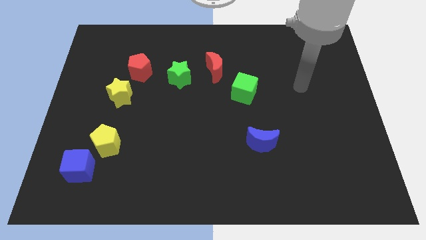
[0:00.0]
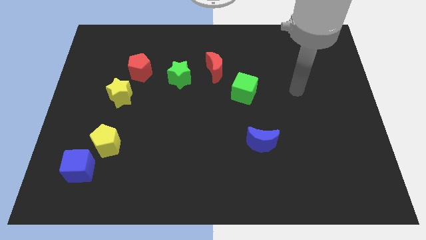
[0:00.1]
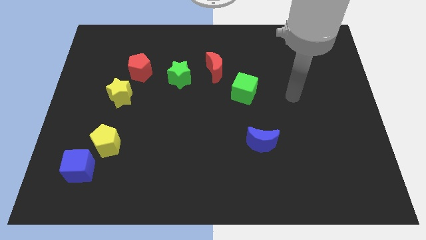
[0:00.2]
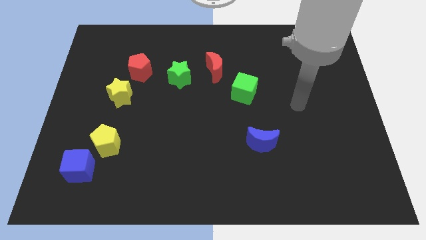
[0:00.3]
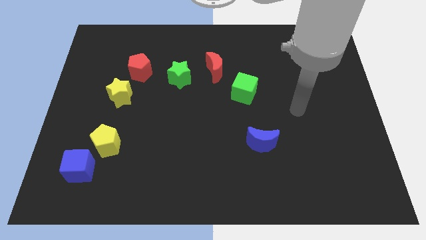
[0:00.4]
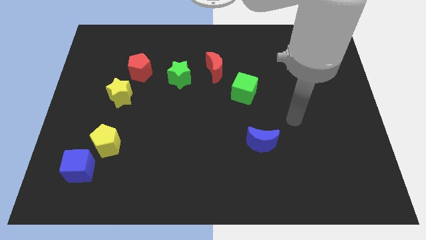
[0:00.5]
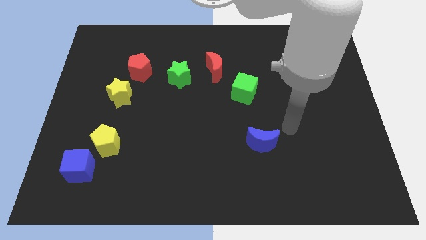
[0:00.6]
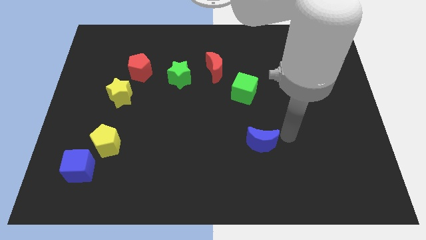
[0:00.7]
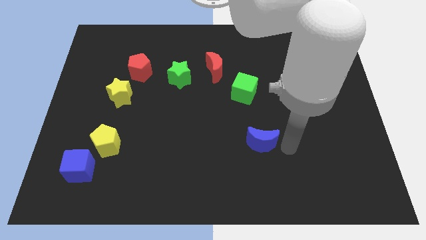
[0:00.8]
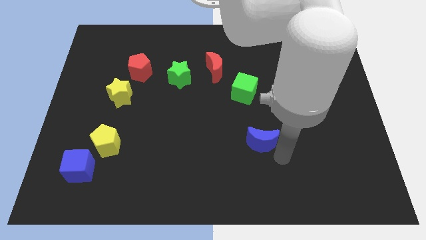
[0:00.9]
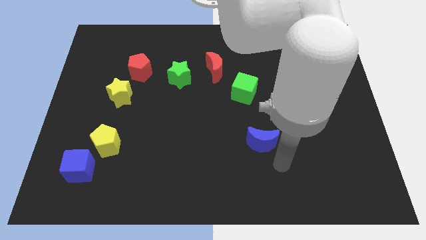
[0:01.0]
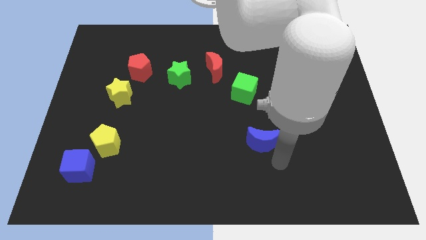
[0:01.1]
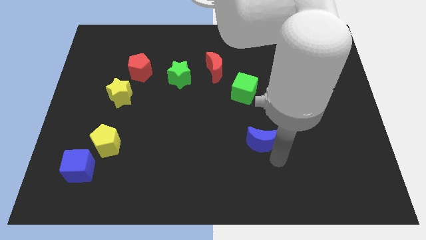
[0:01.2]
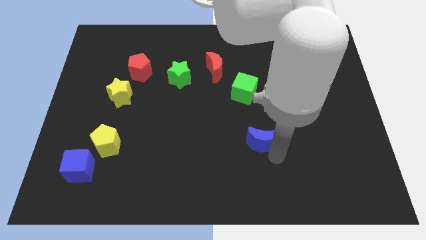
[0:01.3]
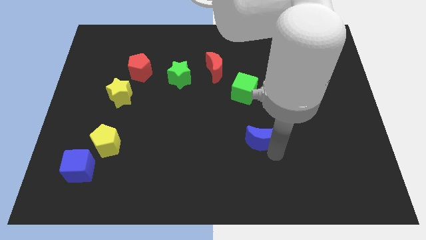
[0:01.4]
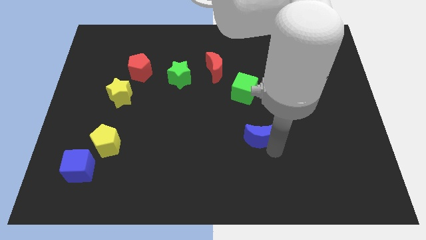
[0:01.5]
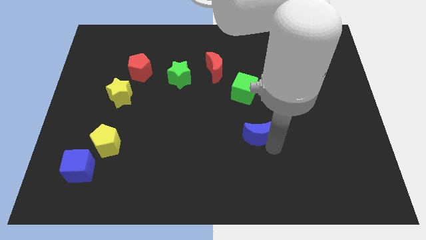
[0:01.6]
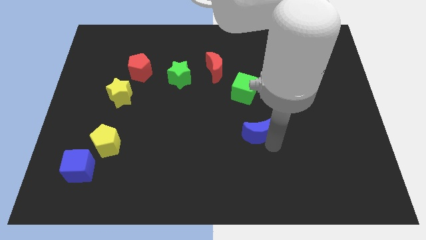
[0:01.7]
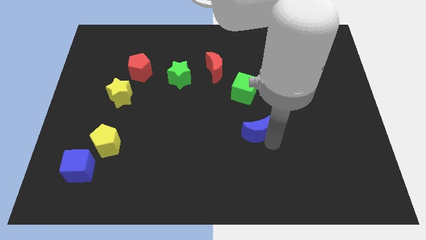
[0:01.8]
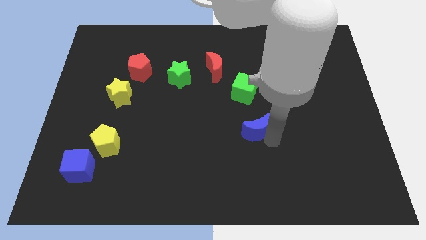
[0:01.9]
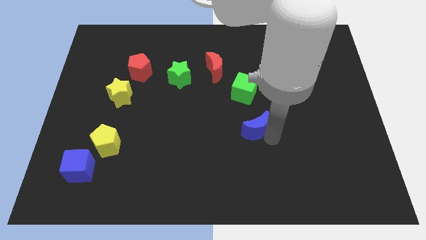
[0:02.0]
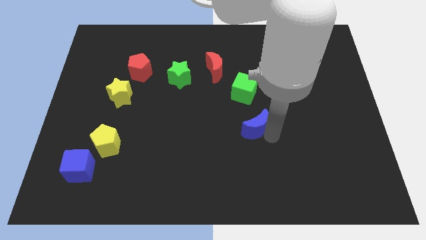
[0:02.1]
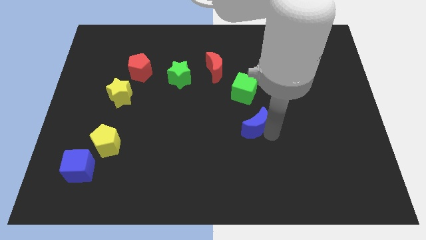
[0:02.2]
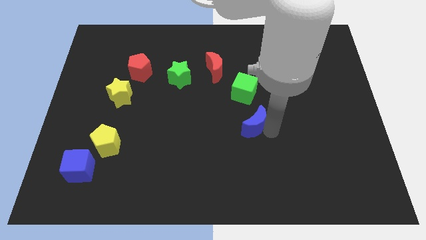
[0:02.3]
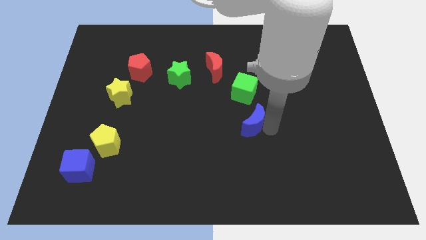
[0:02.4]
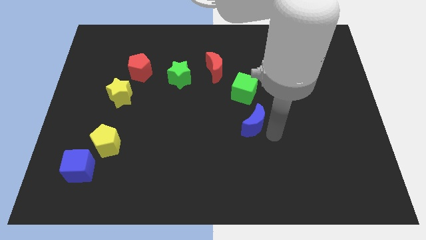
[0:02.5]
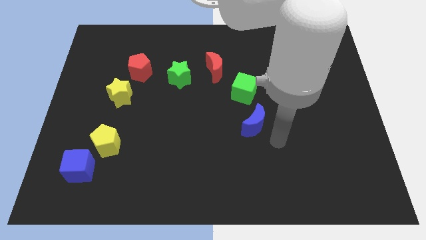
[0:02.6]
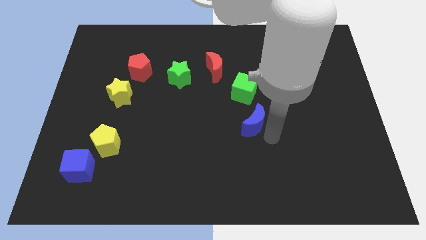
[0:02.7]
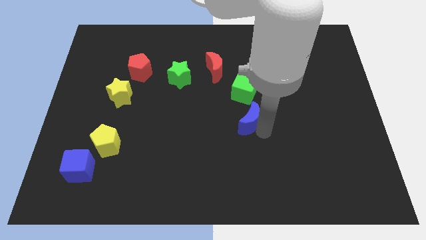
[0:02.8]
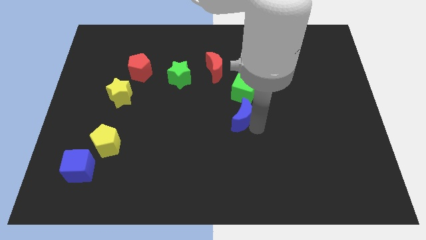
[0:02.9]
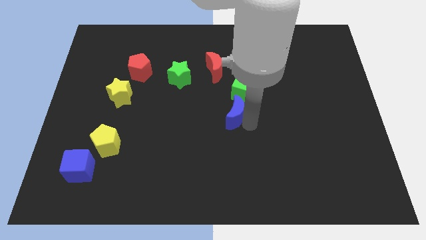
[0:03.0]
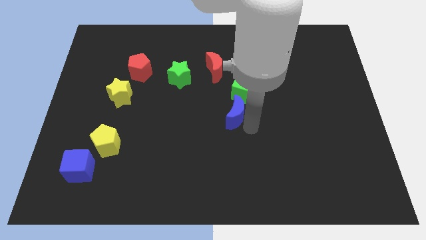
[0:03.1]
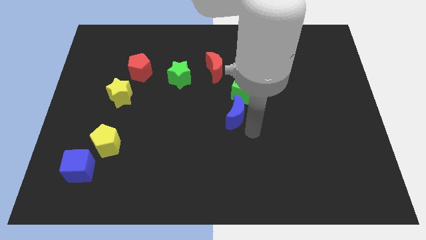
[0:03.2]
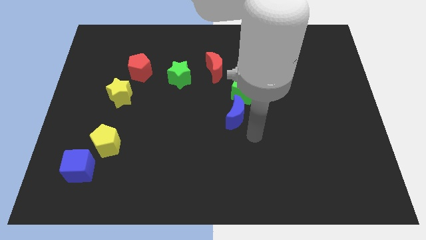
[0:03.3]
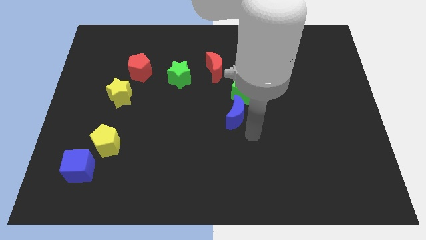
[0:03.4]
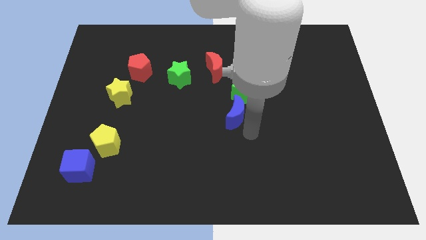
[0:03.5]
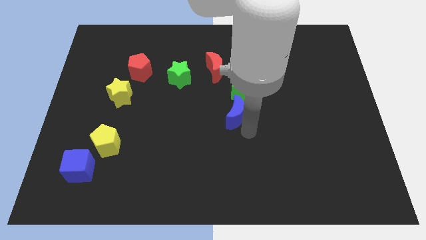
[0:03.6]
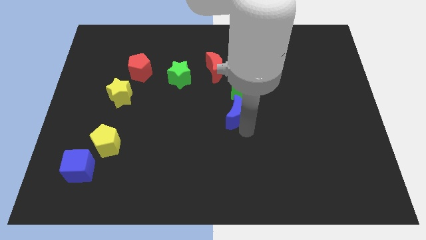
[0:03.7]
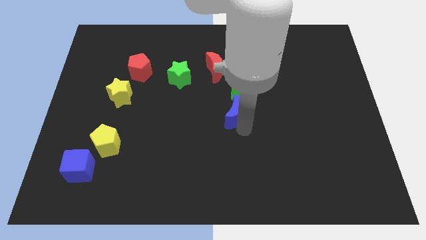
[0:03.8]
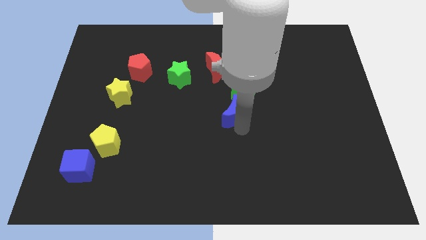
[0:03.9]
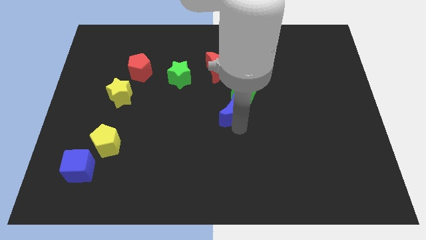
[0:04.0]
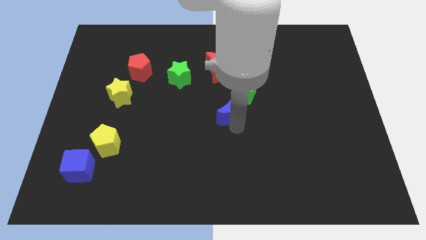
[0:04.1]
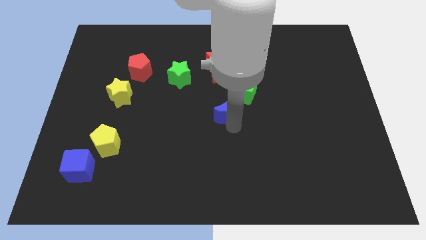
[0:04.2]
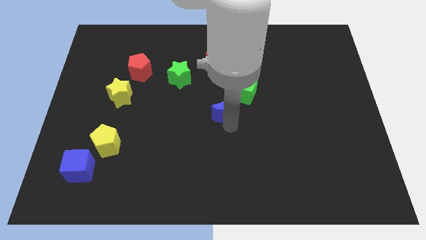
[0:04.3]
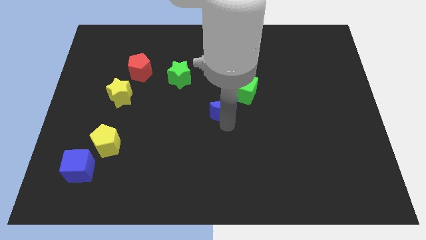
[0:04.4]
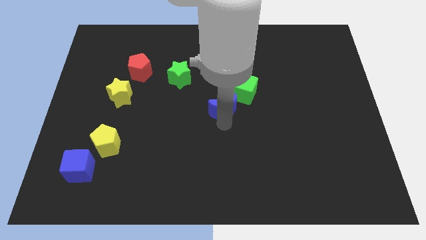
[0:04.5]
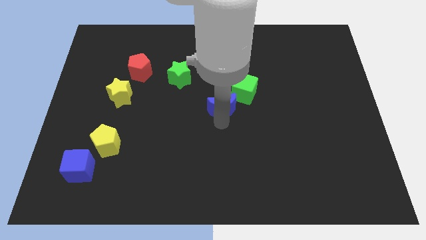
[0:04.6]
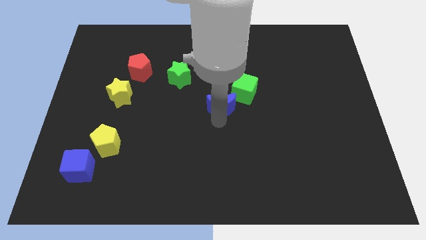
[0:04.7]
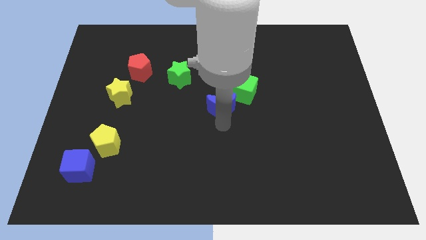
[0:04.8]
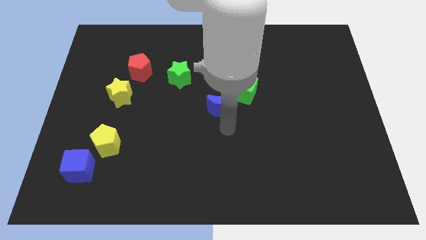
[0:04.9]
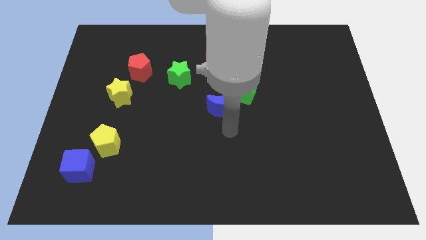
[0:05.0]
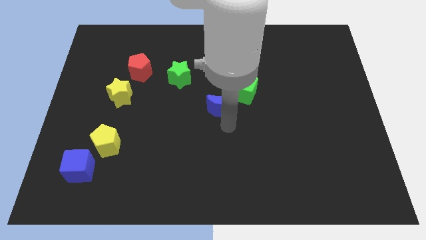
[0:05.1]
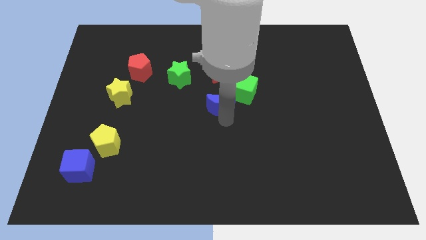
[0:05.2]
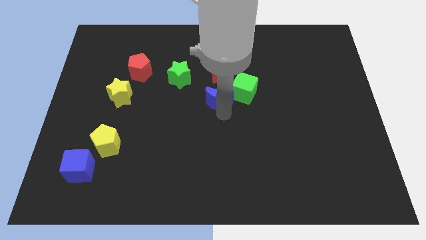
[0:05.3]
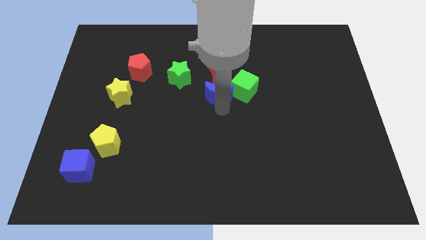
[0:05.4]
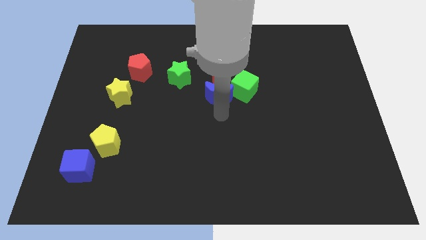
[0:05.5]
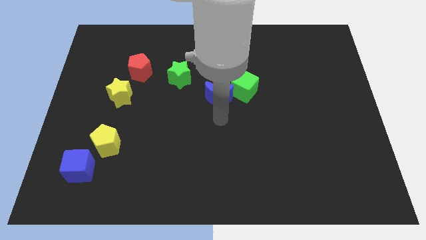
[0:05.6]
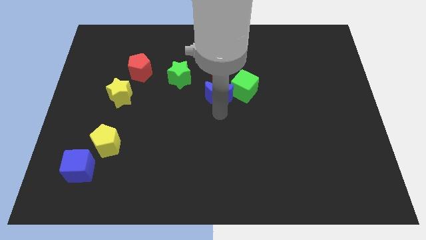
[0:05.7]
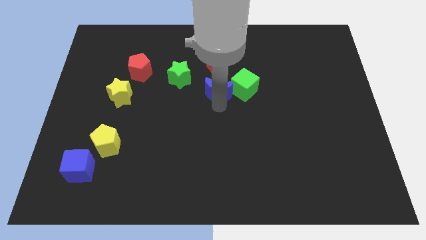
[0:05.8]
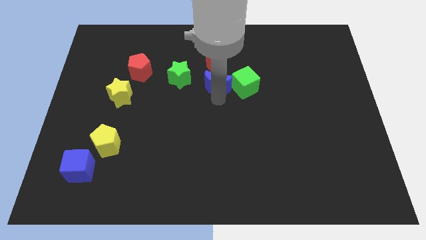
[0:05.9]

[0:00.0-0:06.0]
slide the blue moon close to the red moon

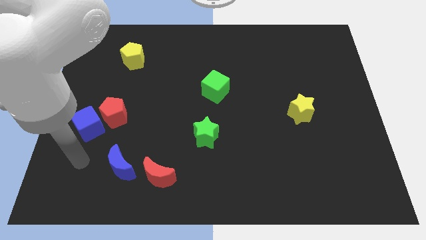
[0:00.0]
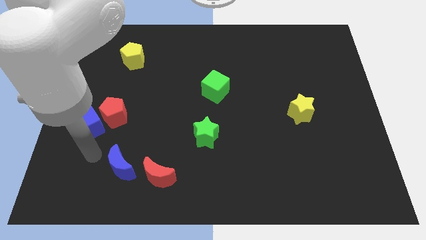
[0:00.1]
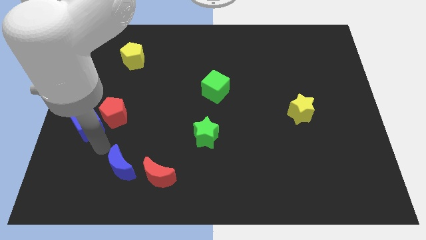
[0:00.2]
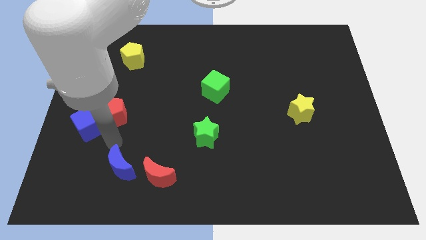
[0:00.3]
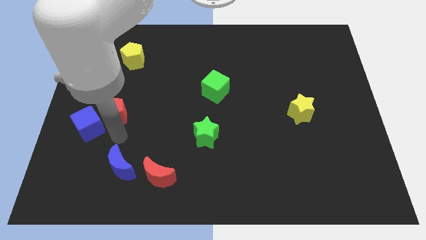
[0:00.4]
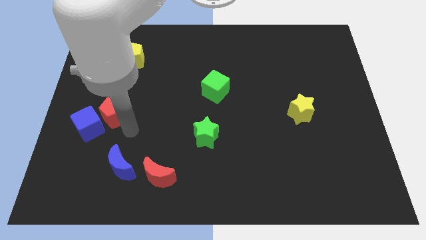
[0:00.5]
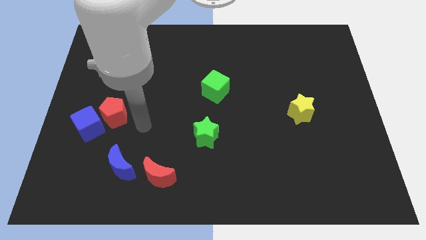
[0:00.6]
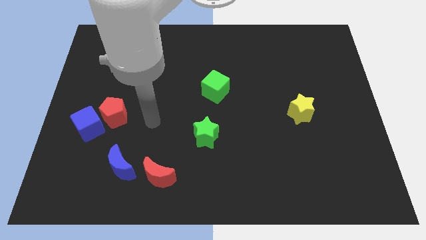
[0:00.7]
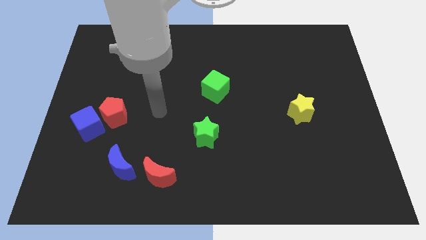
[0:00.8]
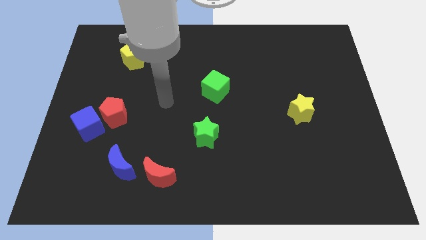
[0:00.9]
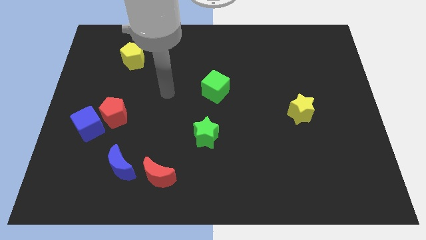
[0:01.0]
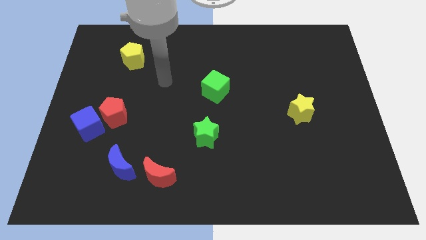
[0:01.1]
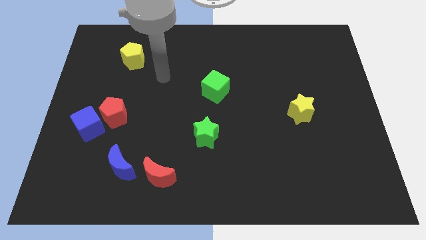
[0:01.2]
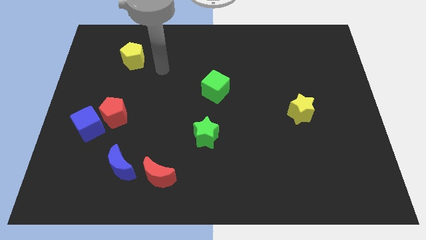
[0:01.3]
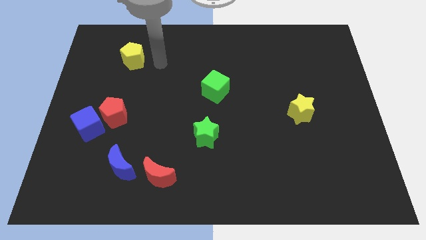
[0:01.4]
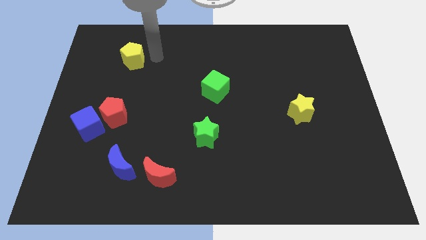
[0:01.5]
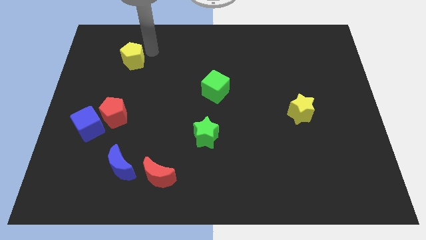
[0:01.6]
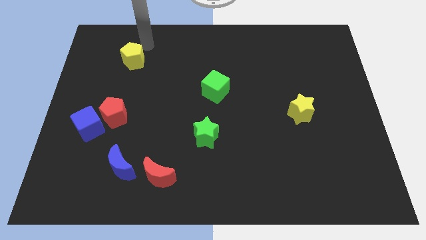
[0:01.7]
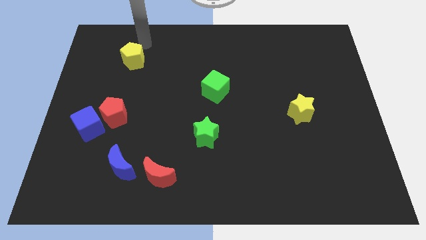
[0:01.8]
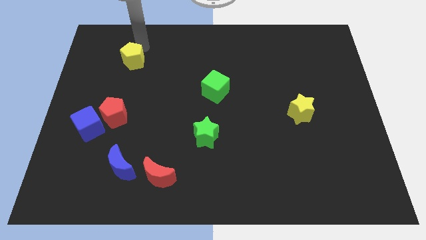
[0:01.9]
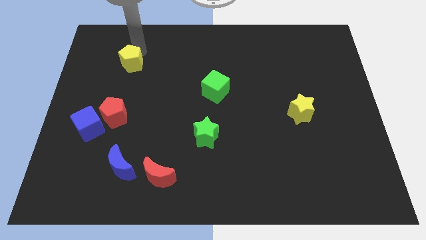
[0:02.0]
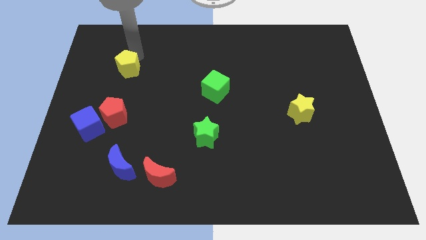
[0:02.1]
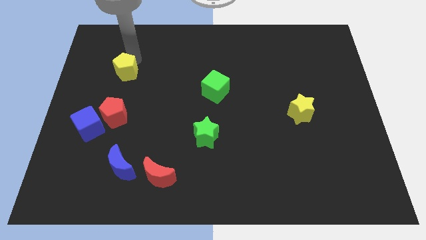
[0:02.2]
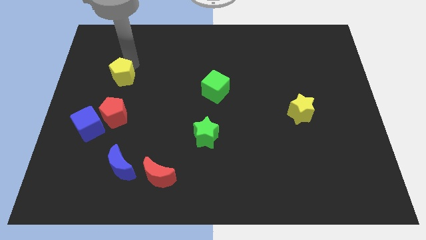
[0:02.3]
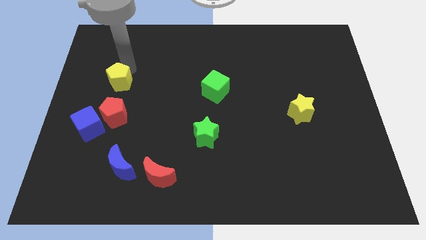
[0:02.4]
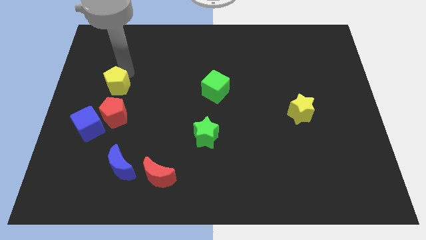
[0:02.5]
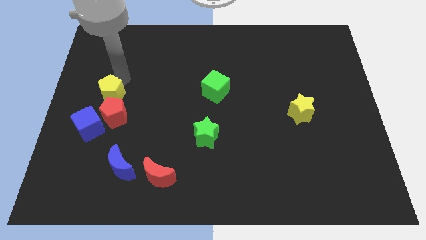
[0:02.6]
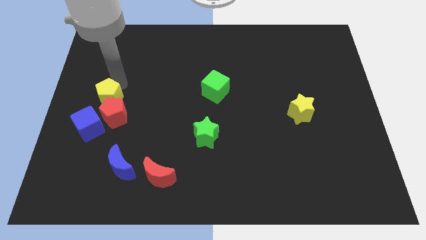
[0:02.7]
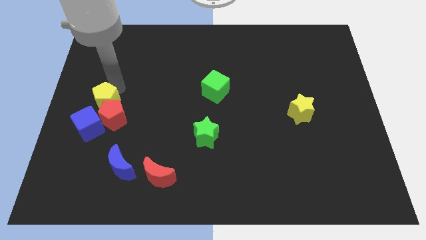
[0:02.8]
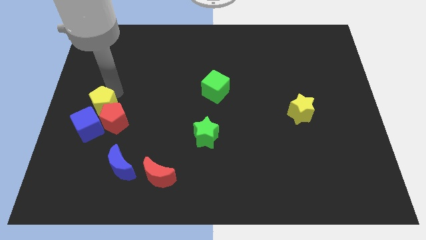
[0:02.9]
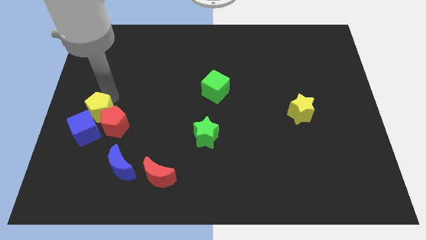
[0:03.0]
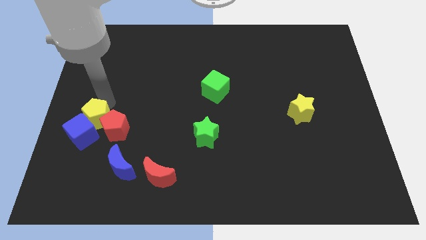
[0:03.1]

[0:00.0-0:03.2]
push the yellow pentagon towards the blue cube
